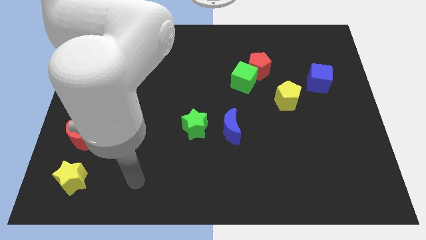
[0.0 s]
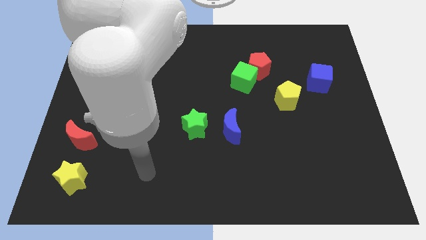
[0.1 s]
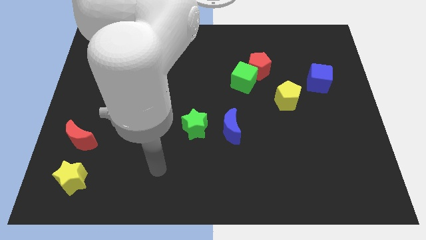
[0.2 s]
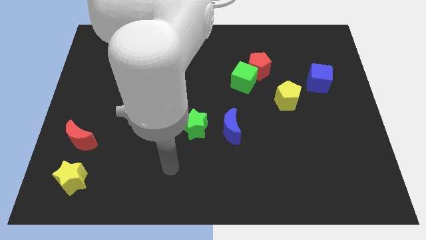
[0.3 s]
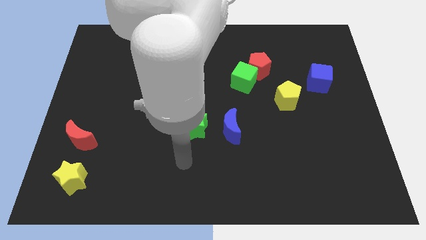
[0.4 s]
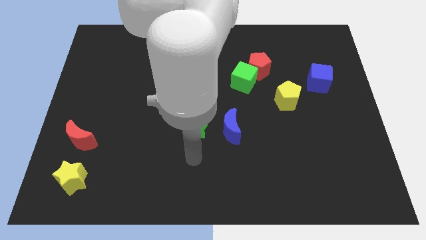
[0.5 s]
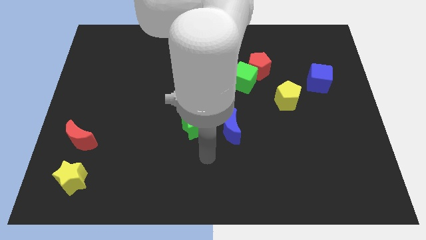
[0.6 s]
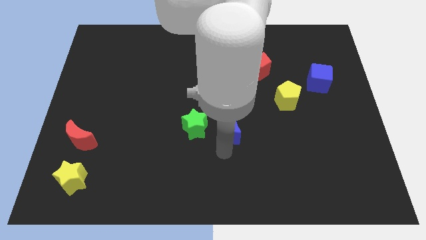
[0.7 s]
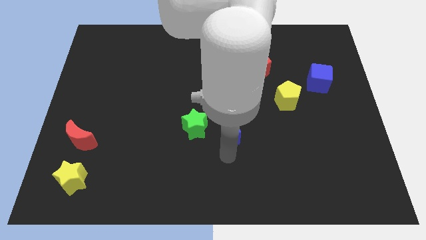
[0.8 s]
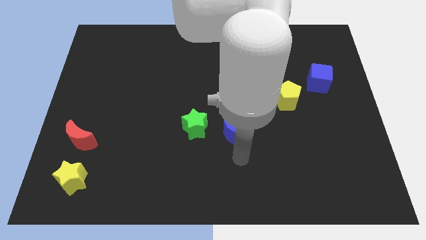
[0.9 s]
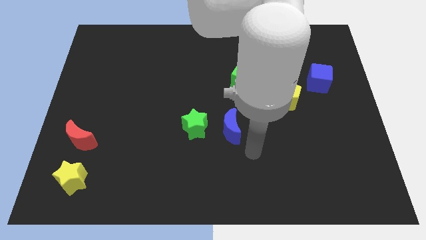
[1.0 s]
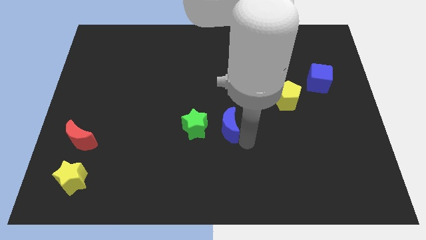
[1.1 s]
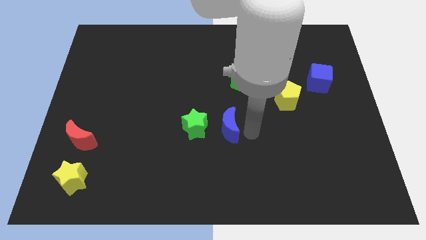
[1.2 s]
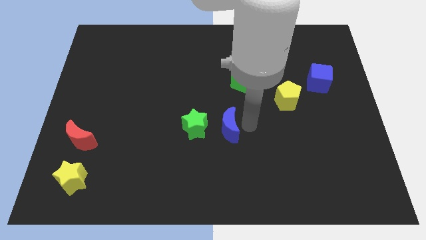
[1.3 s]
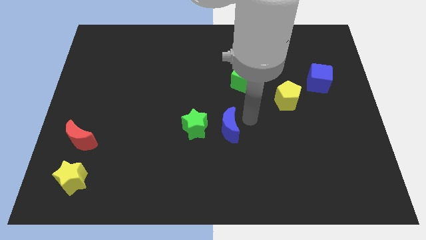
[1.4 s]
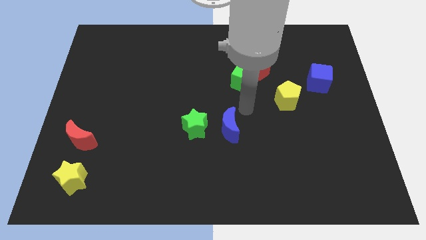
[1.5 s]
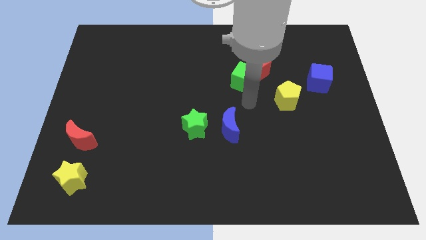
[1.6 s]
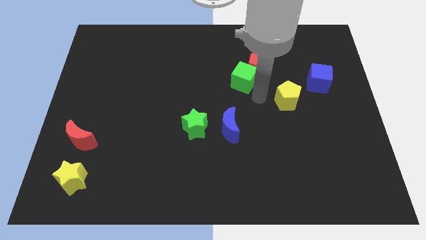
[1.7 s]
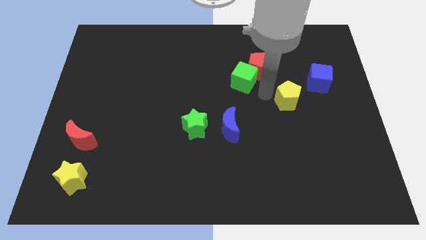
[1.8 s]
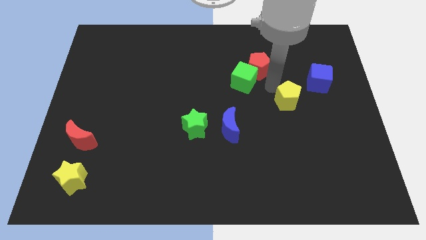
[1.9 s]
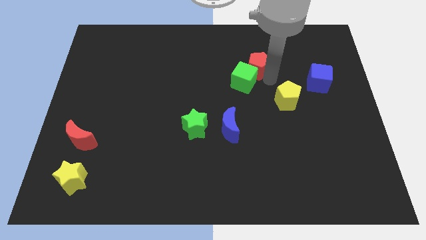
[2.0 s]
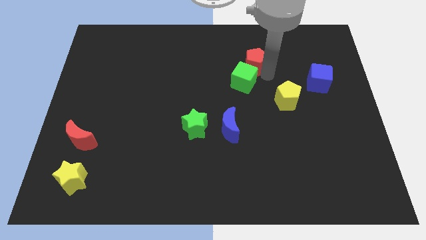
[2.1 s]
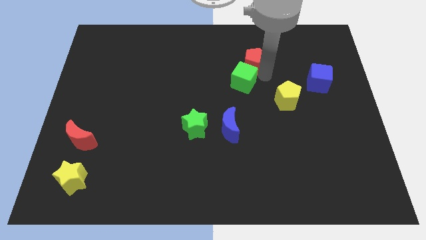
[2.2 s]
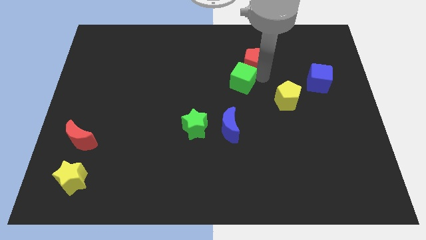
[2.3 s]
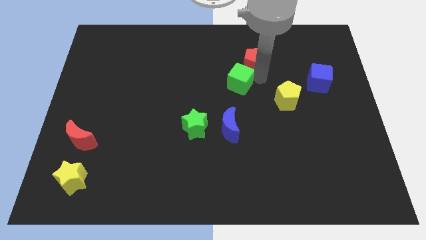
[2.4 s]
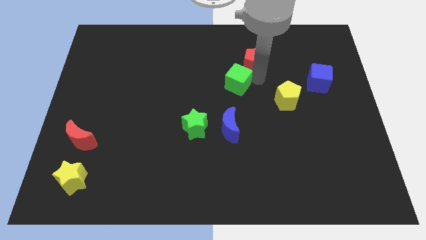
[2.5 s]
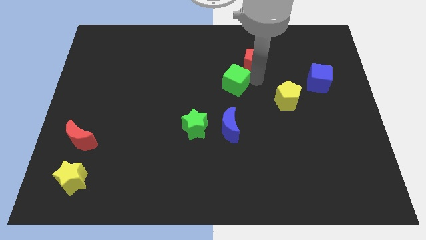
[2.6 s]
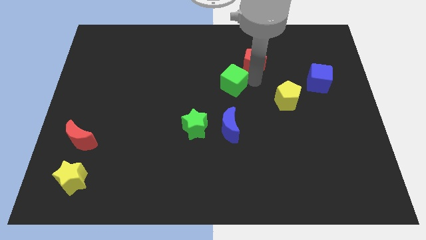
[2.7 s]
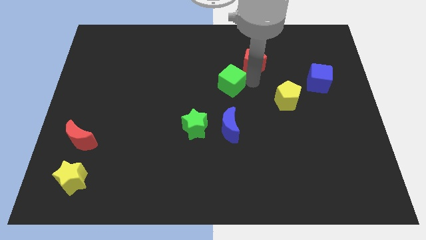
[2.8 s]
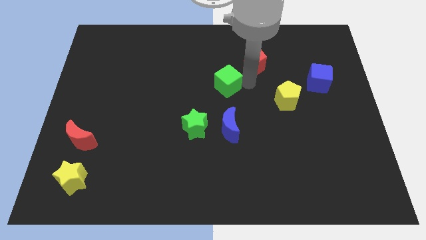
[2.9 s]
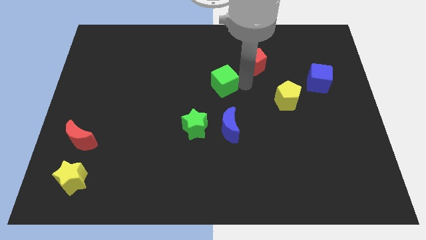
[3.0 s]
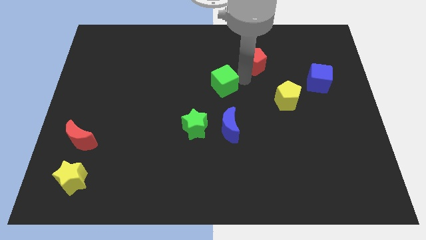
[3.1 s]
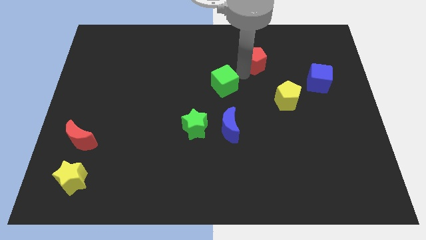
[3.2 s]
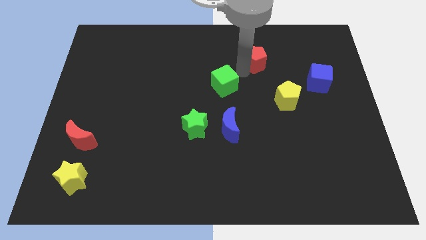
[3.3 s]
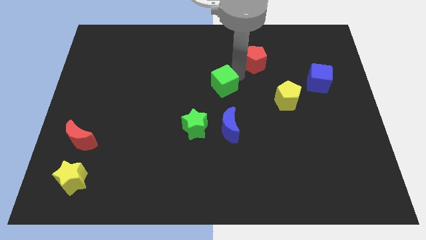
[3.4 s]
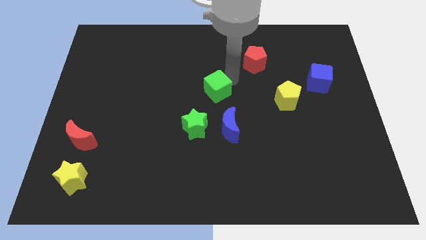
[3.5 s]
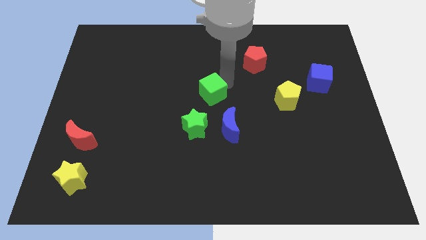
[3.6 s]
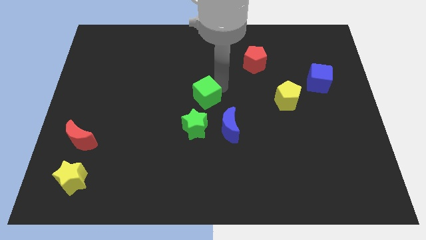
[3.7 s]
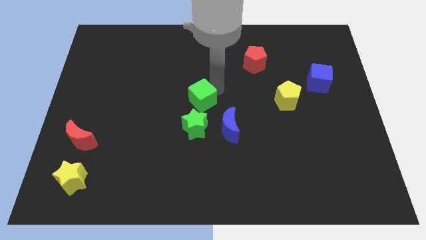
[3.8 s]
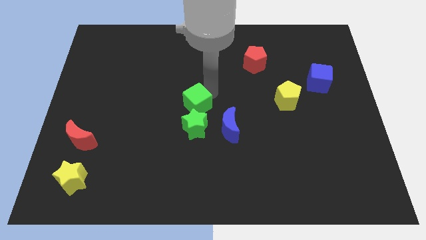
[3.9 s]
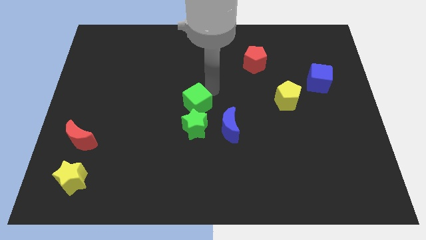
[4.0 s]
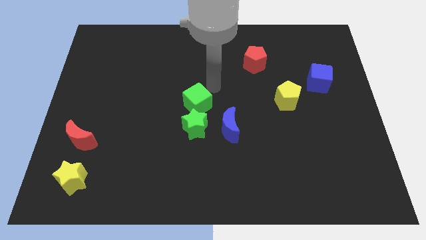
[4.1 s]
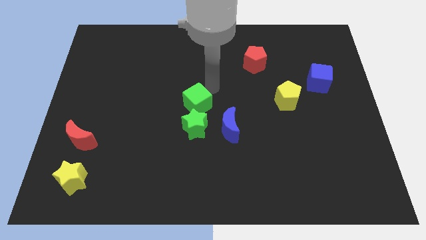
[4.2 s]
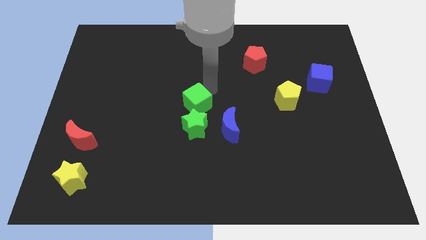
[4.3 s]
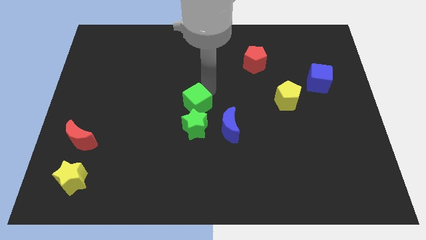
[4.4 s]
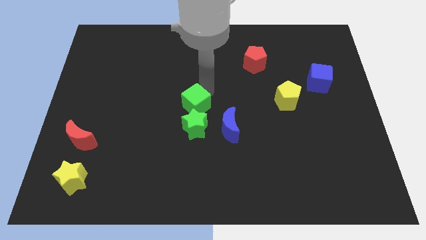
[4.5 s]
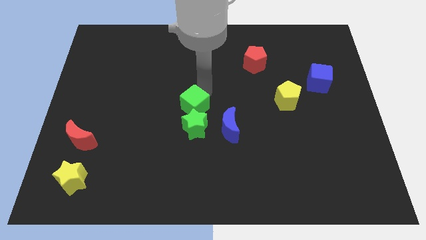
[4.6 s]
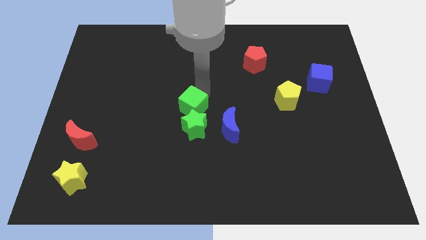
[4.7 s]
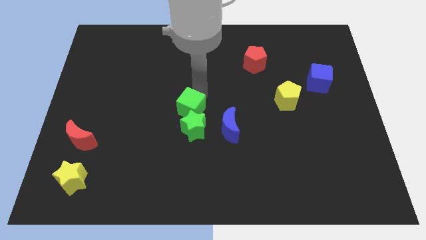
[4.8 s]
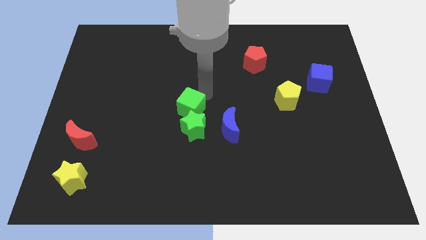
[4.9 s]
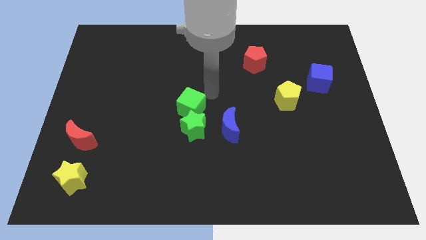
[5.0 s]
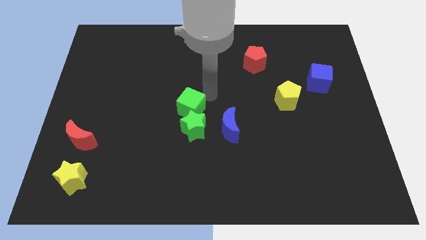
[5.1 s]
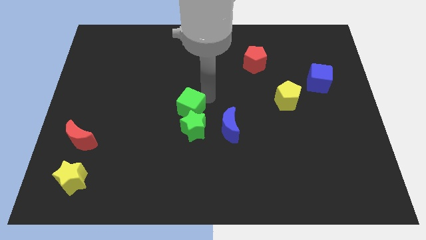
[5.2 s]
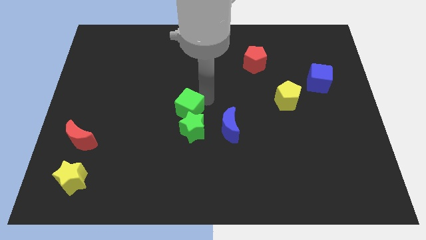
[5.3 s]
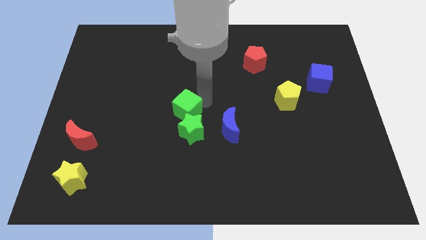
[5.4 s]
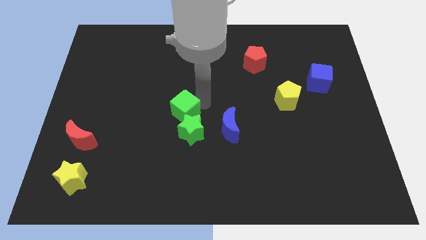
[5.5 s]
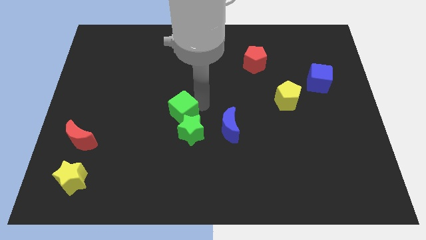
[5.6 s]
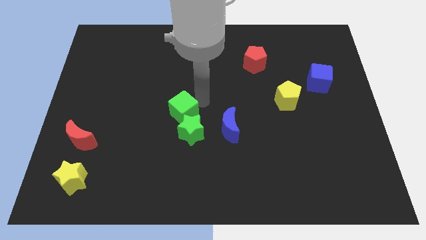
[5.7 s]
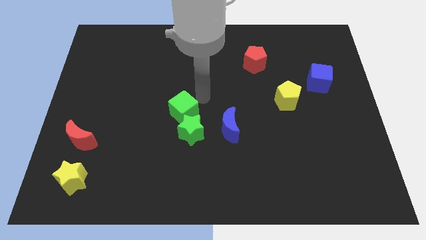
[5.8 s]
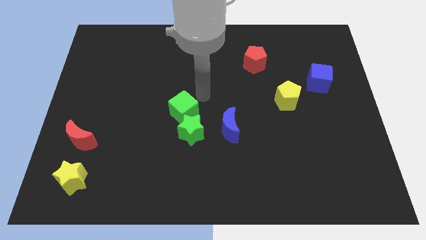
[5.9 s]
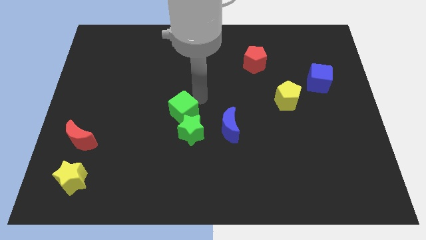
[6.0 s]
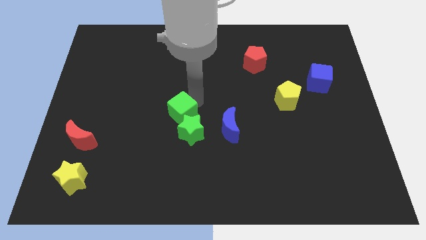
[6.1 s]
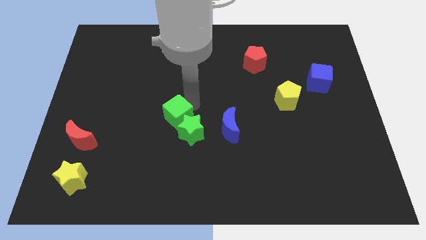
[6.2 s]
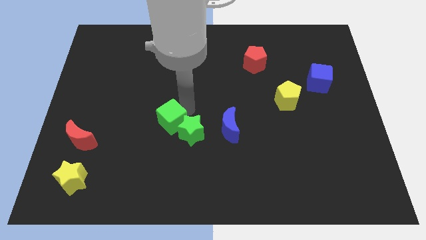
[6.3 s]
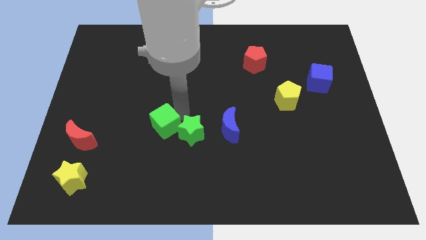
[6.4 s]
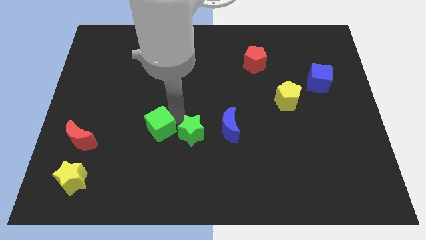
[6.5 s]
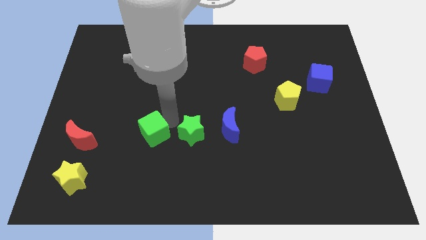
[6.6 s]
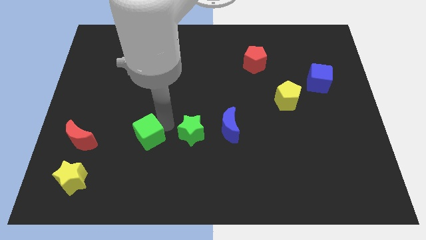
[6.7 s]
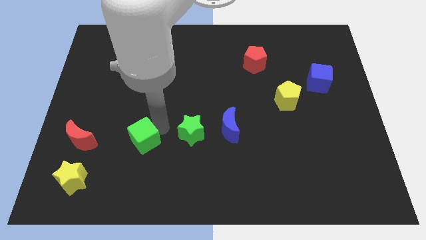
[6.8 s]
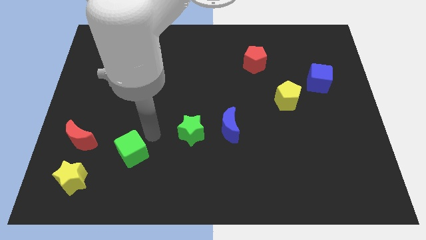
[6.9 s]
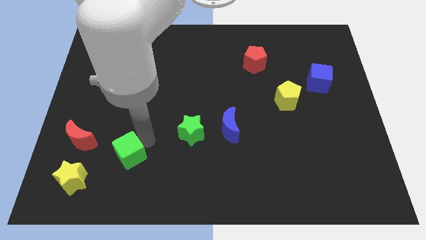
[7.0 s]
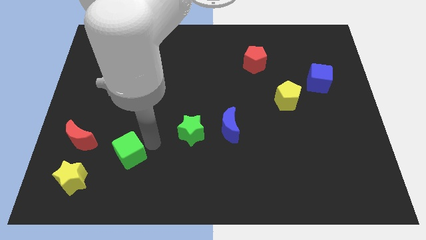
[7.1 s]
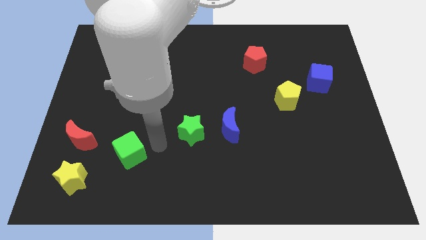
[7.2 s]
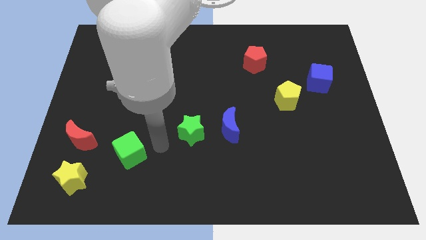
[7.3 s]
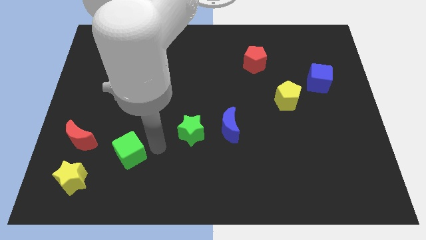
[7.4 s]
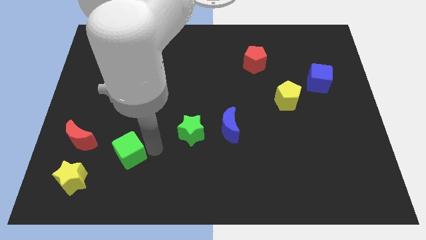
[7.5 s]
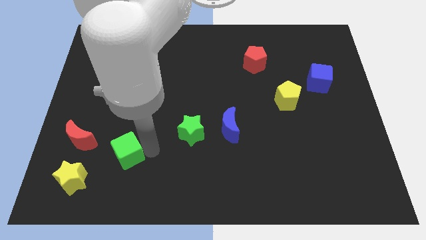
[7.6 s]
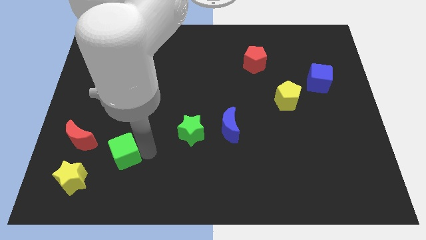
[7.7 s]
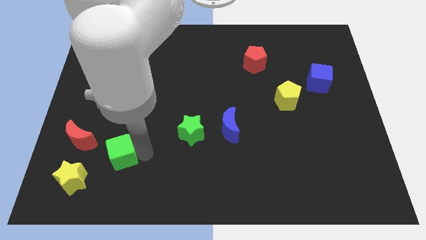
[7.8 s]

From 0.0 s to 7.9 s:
move the green cube diagonally down and to the right of the red moon
